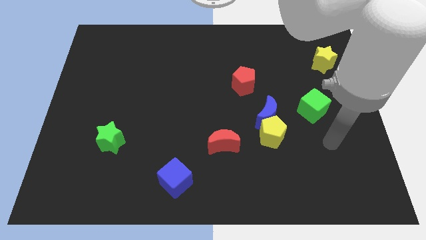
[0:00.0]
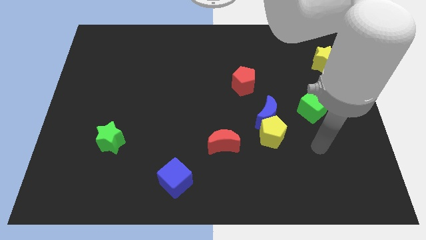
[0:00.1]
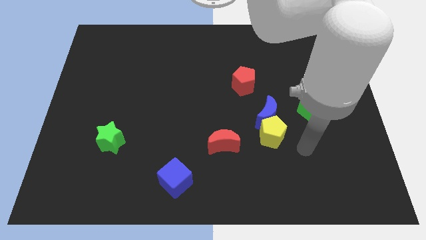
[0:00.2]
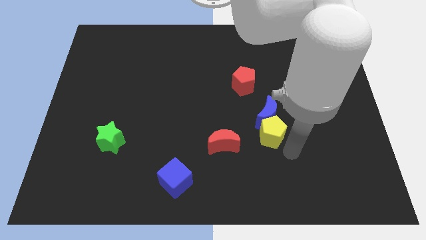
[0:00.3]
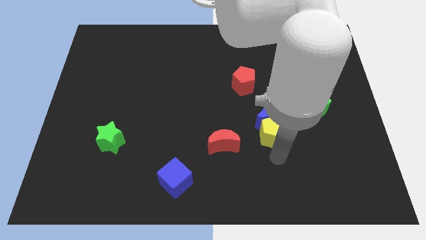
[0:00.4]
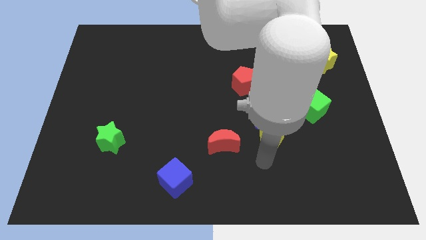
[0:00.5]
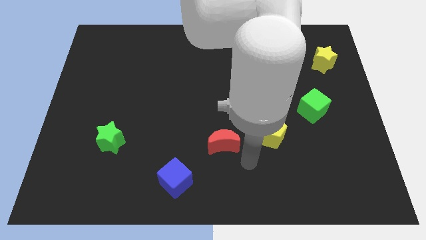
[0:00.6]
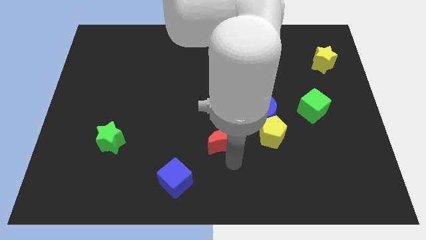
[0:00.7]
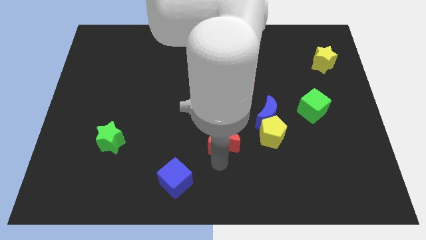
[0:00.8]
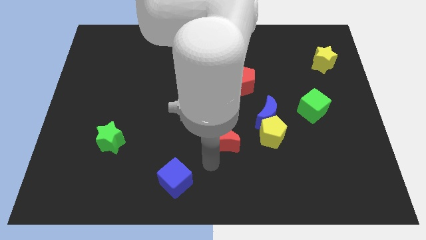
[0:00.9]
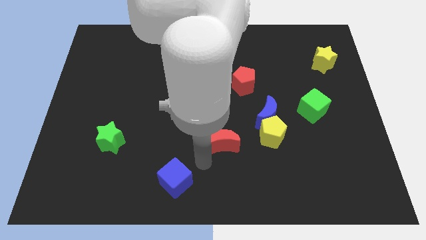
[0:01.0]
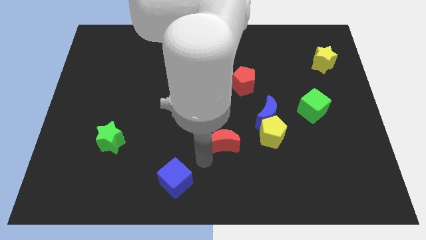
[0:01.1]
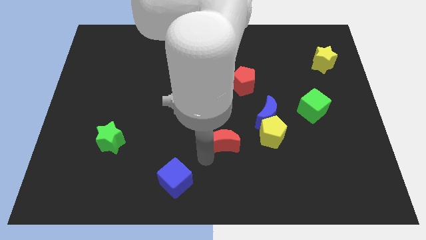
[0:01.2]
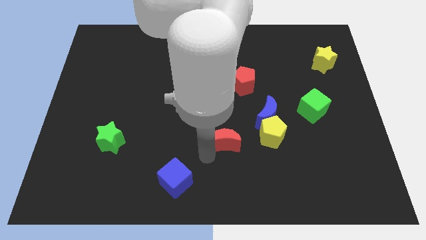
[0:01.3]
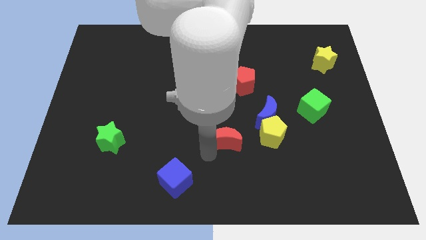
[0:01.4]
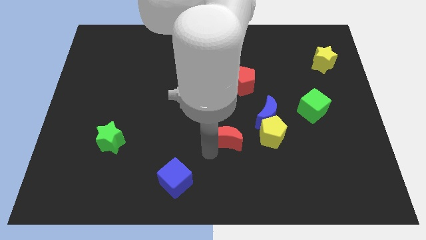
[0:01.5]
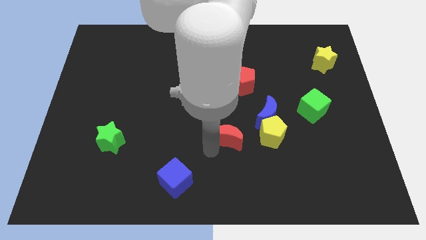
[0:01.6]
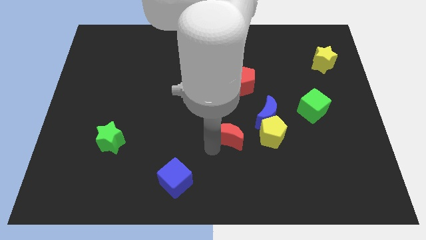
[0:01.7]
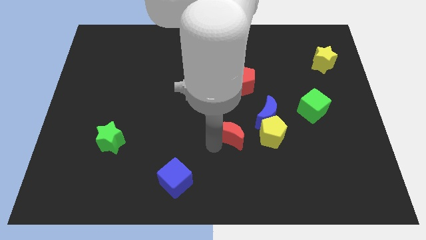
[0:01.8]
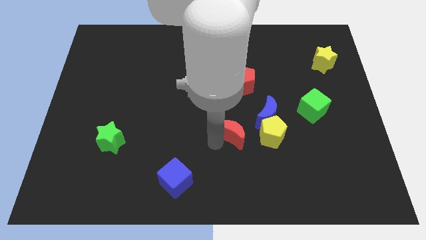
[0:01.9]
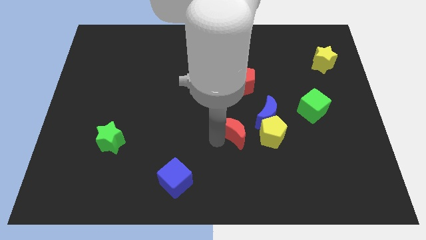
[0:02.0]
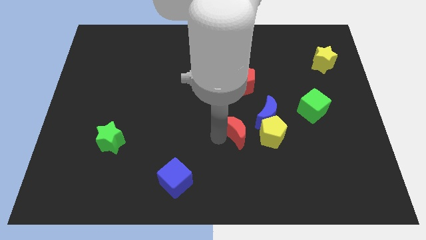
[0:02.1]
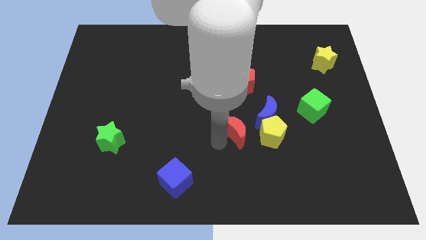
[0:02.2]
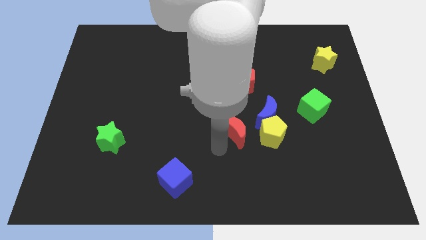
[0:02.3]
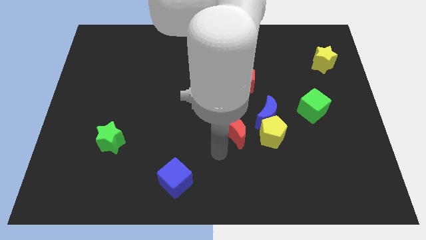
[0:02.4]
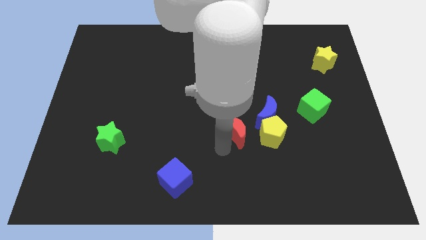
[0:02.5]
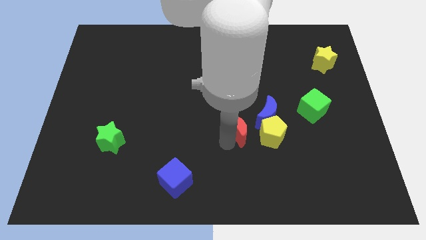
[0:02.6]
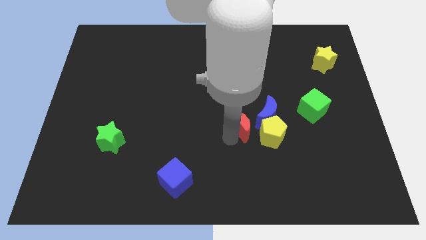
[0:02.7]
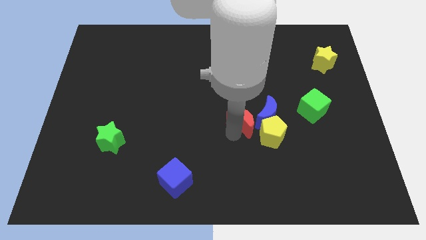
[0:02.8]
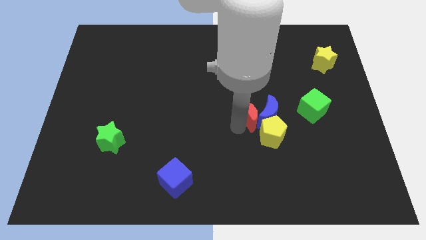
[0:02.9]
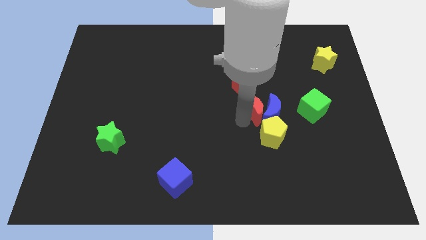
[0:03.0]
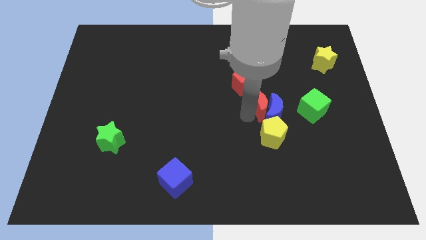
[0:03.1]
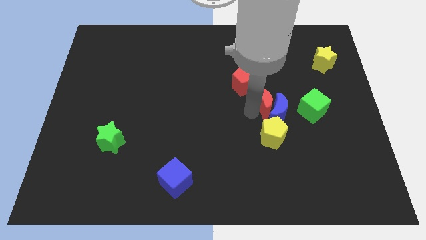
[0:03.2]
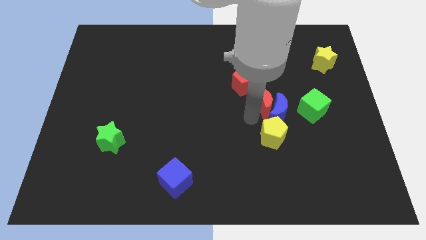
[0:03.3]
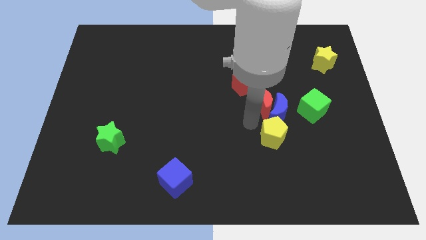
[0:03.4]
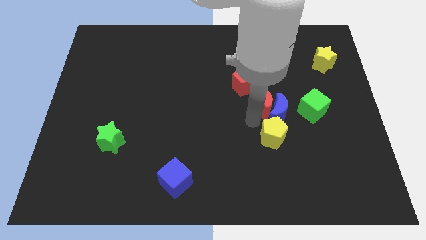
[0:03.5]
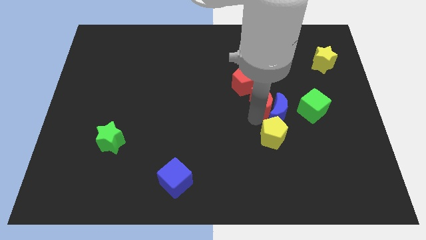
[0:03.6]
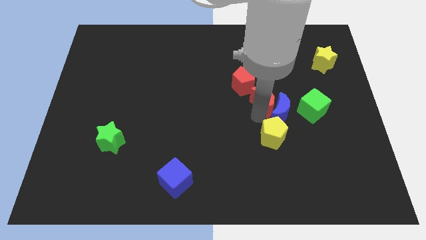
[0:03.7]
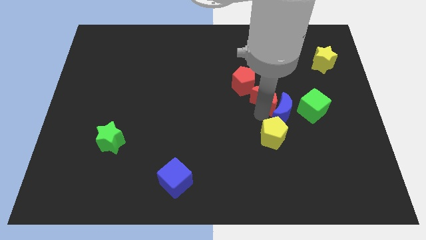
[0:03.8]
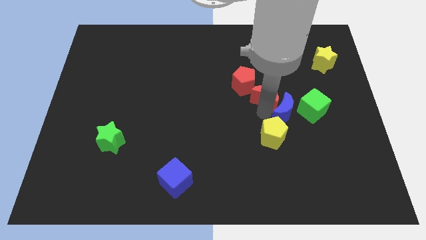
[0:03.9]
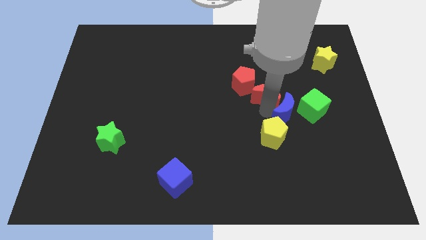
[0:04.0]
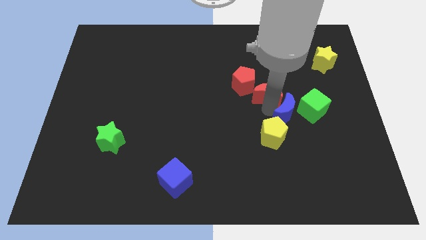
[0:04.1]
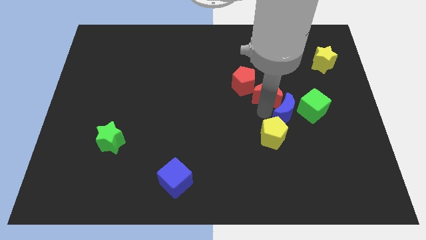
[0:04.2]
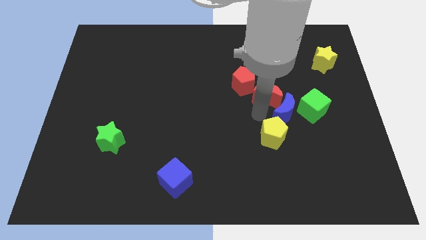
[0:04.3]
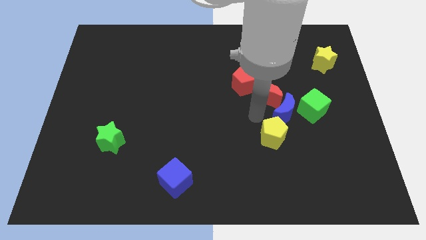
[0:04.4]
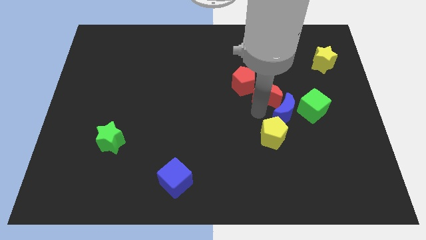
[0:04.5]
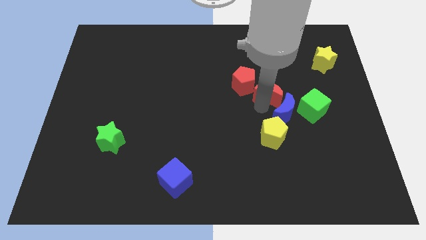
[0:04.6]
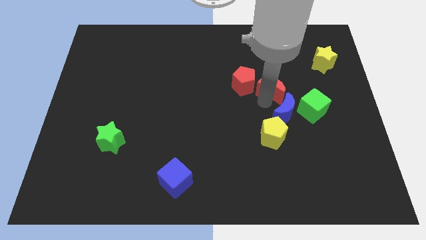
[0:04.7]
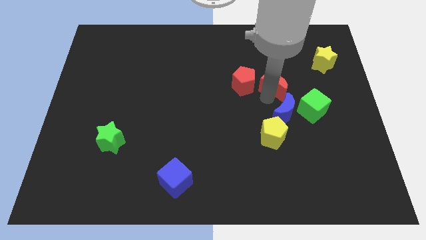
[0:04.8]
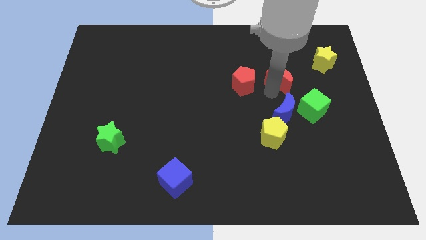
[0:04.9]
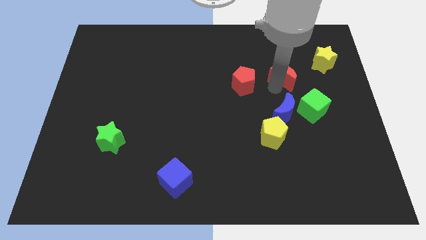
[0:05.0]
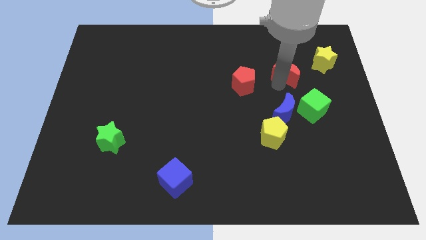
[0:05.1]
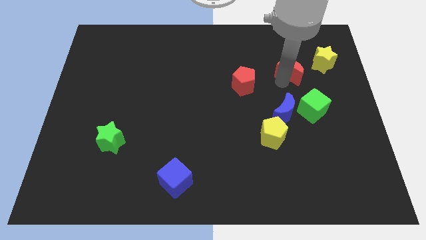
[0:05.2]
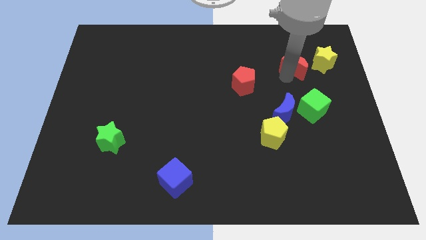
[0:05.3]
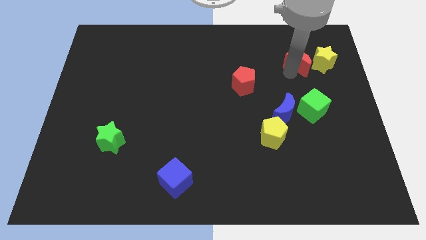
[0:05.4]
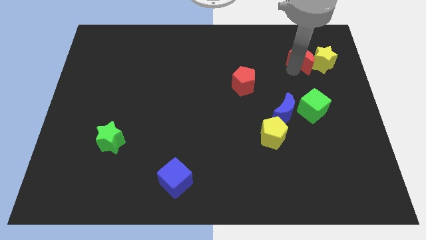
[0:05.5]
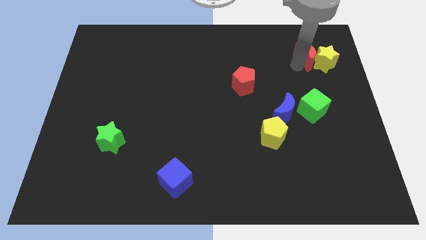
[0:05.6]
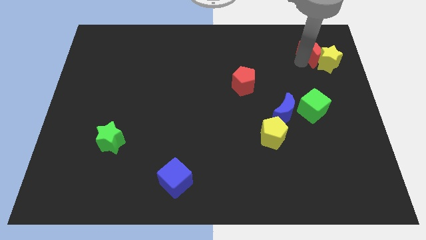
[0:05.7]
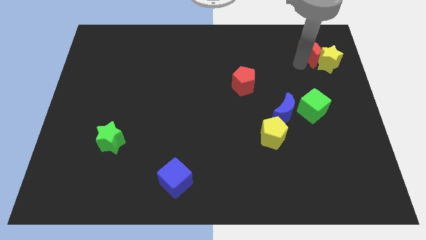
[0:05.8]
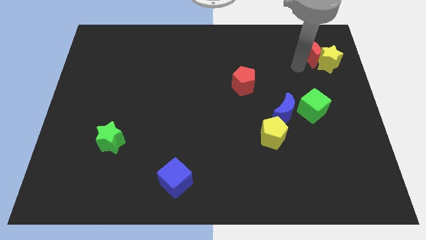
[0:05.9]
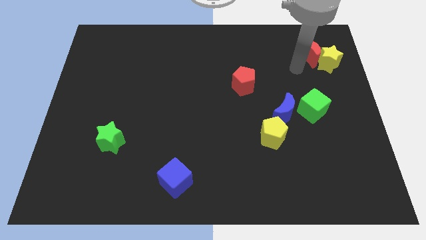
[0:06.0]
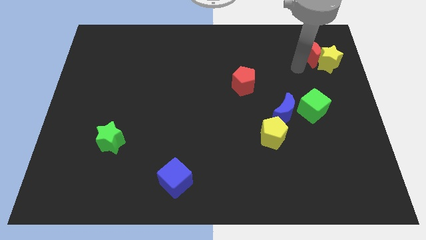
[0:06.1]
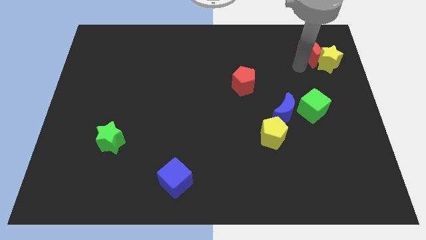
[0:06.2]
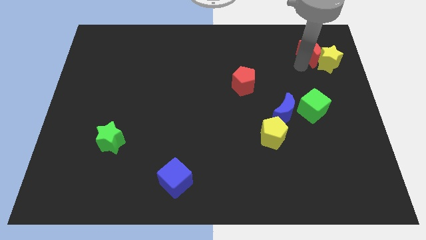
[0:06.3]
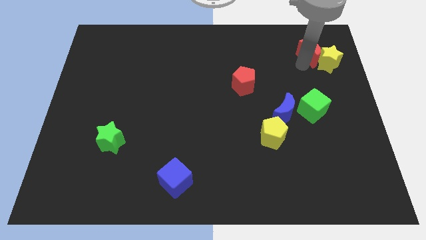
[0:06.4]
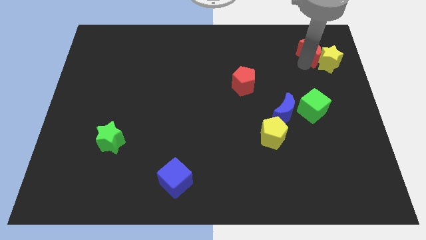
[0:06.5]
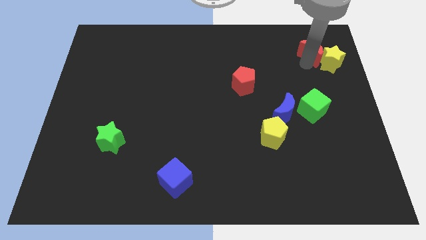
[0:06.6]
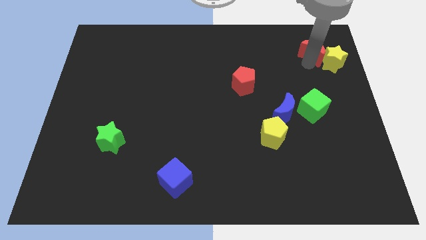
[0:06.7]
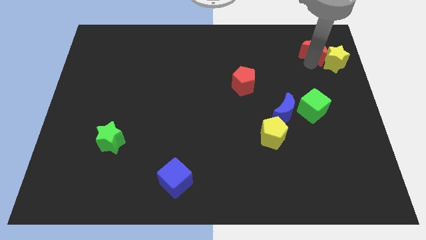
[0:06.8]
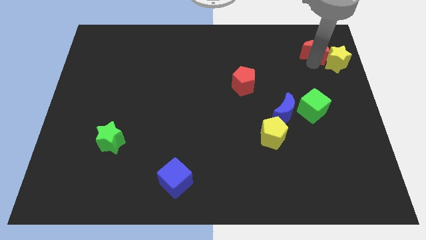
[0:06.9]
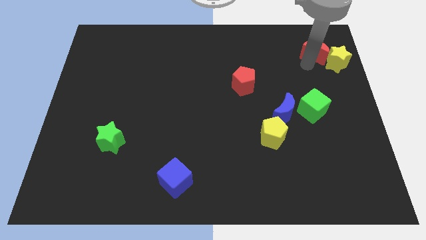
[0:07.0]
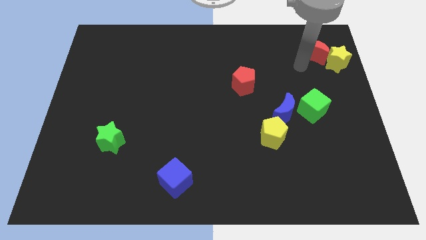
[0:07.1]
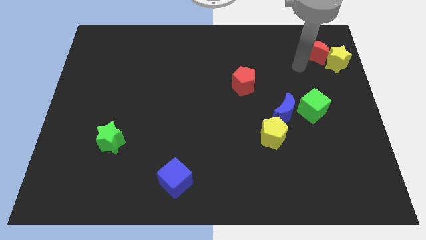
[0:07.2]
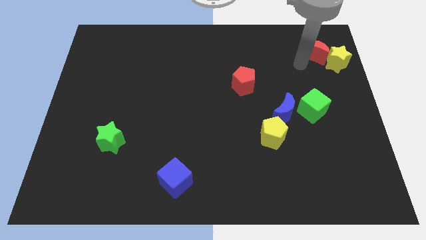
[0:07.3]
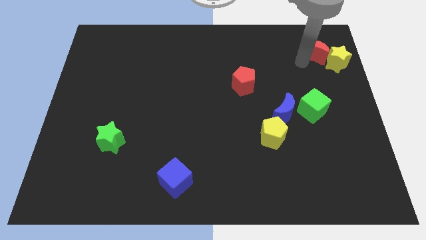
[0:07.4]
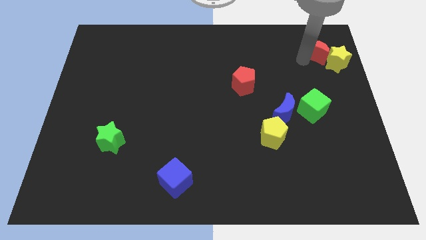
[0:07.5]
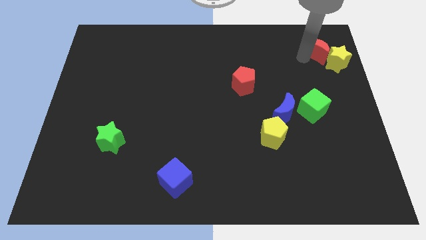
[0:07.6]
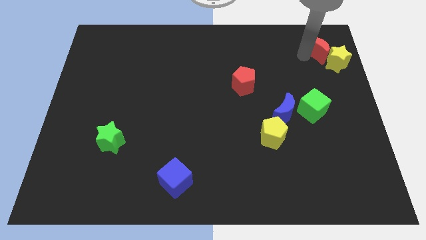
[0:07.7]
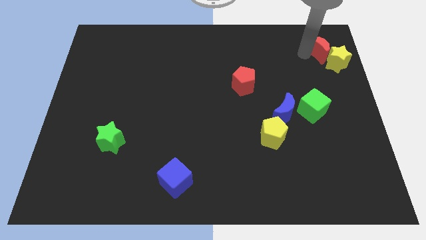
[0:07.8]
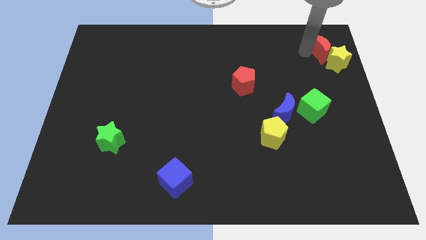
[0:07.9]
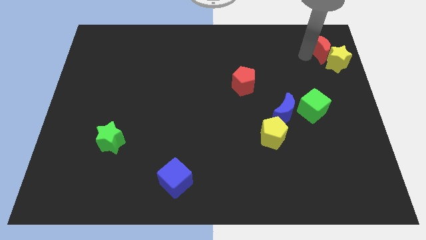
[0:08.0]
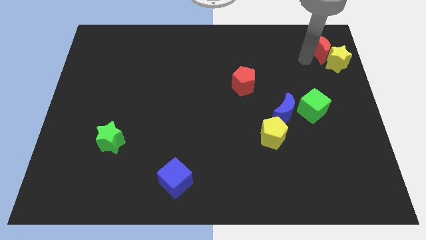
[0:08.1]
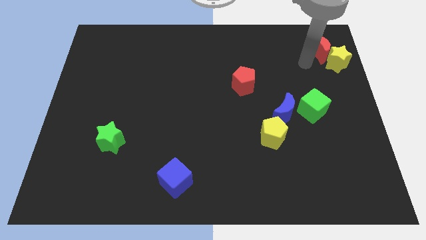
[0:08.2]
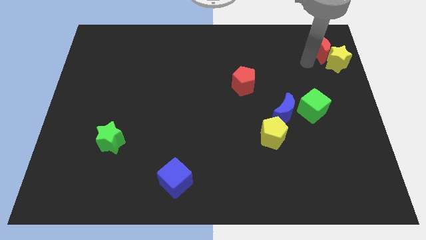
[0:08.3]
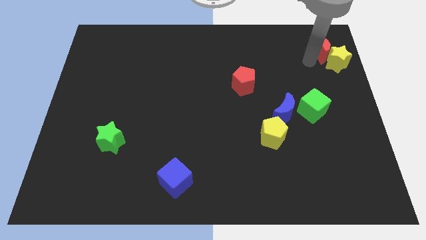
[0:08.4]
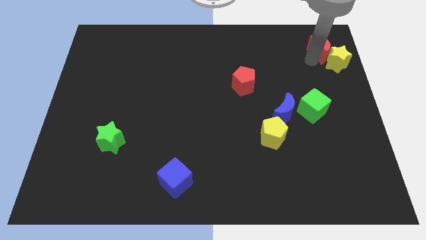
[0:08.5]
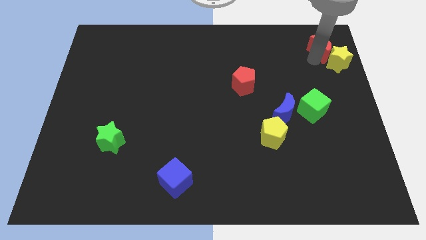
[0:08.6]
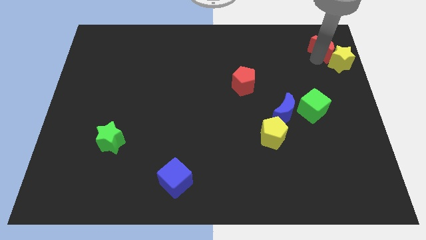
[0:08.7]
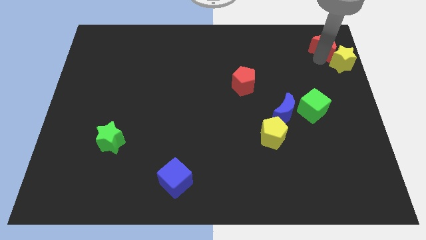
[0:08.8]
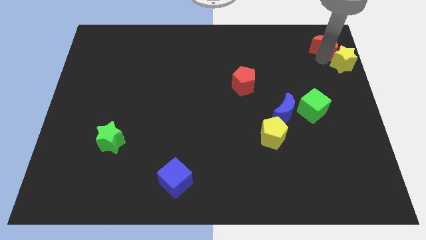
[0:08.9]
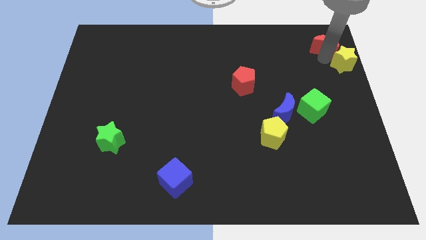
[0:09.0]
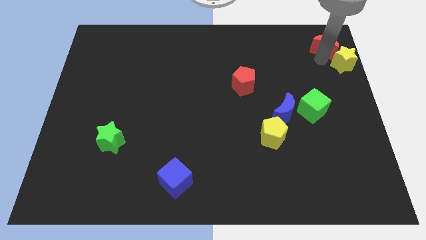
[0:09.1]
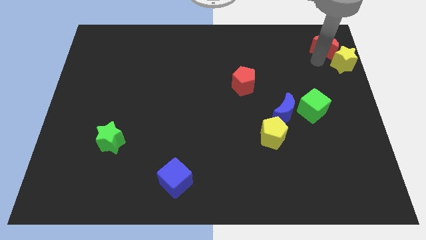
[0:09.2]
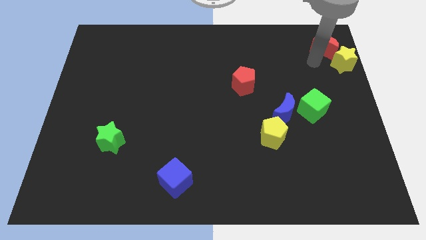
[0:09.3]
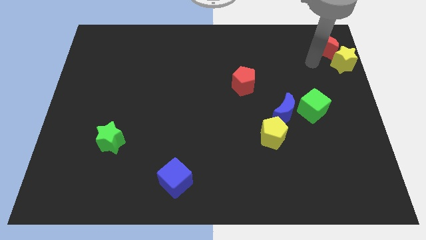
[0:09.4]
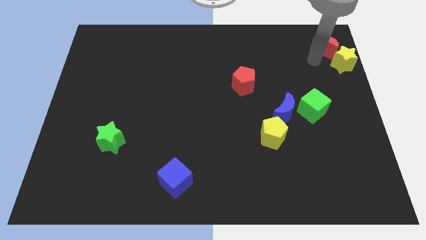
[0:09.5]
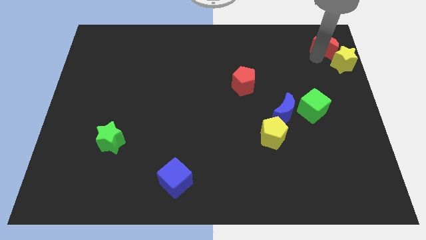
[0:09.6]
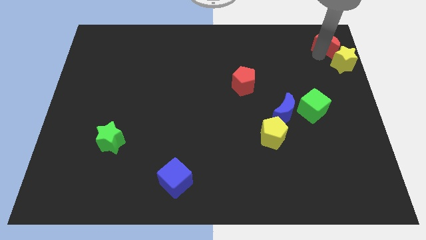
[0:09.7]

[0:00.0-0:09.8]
slide the red moon to the top right
